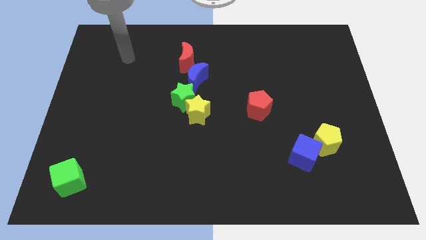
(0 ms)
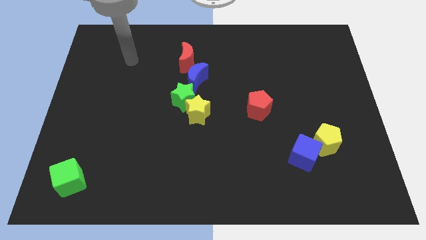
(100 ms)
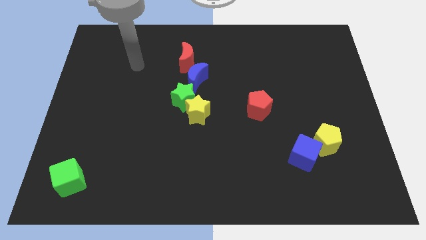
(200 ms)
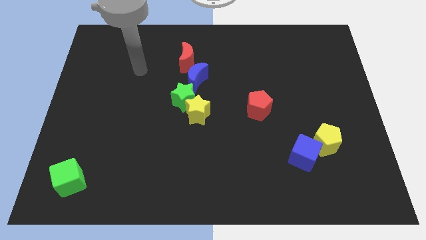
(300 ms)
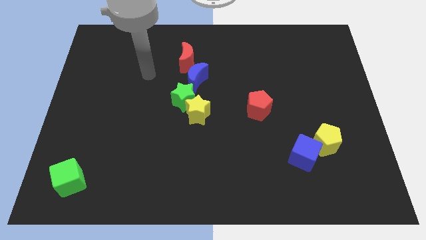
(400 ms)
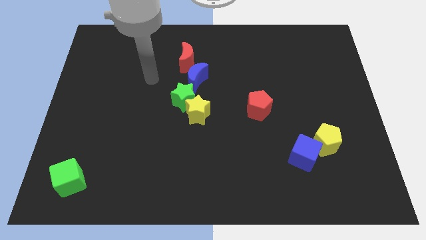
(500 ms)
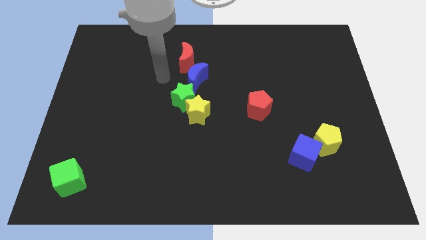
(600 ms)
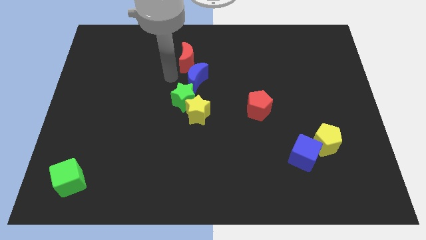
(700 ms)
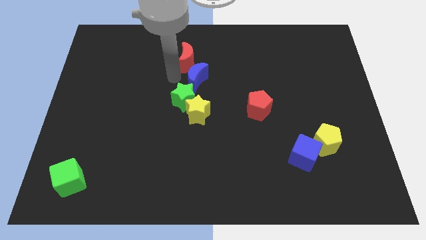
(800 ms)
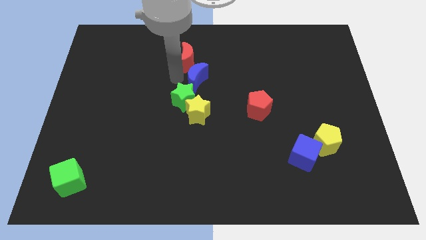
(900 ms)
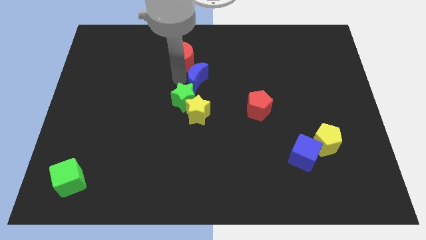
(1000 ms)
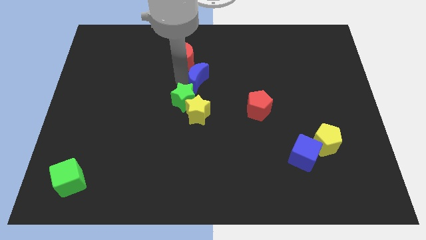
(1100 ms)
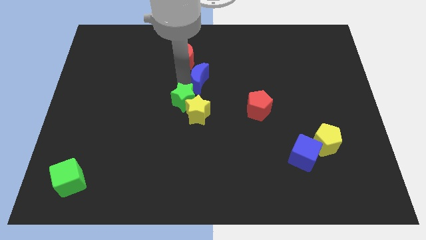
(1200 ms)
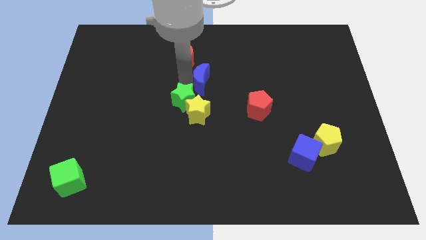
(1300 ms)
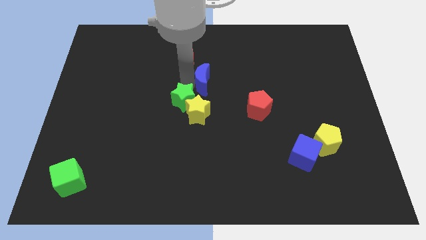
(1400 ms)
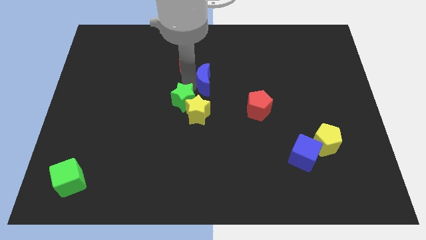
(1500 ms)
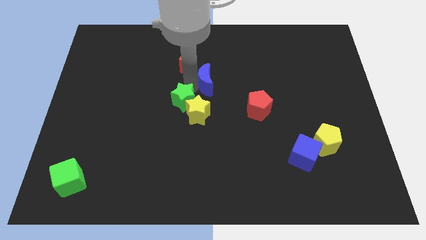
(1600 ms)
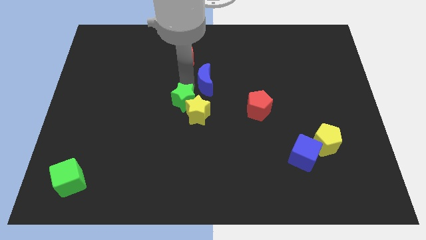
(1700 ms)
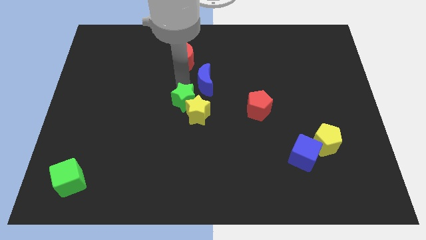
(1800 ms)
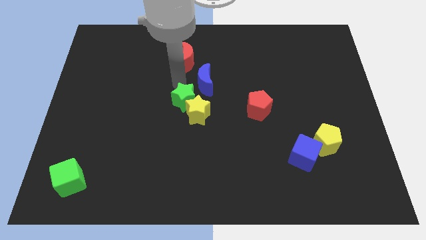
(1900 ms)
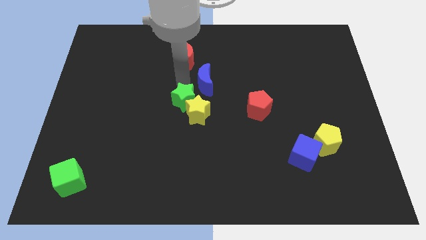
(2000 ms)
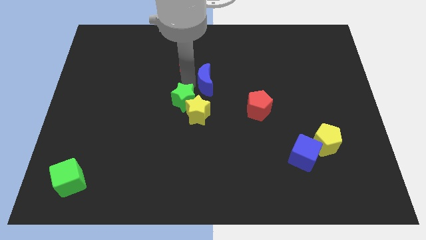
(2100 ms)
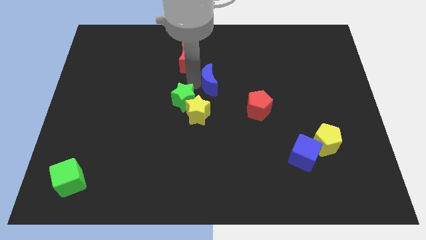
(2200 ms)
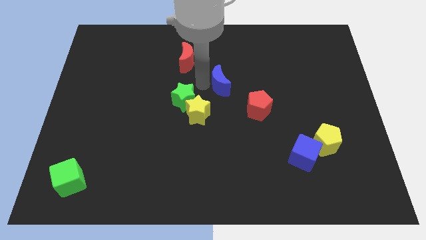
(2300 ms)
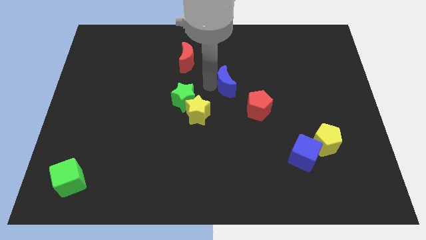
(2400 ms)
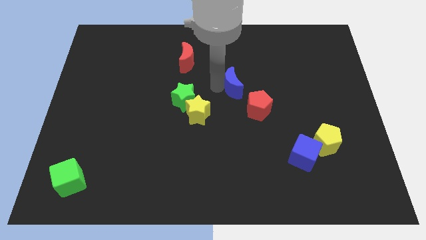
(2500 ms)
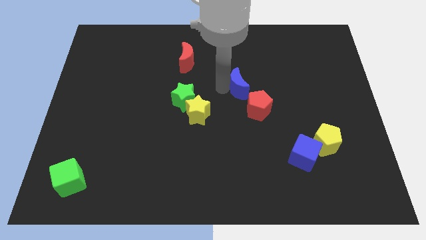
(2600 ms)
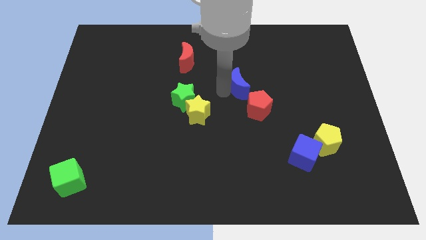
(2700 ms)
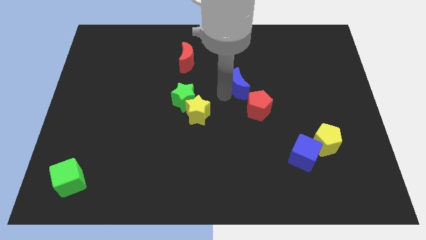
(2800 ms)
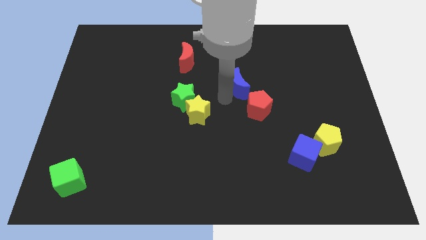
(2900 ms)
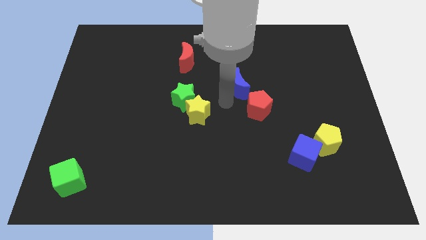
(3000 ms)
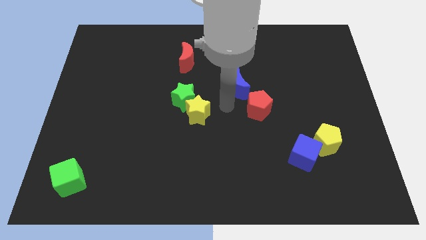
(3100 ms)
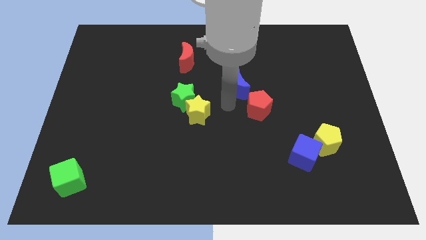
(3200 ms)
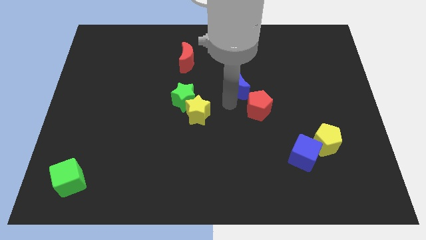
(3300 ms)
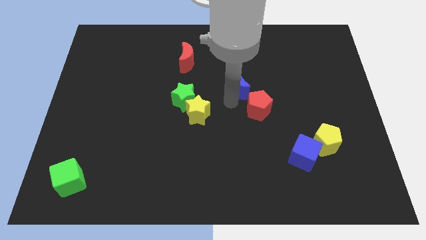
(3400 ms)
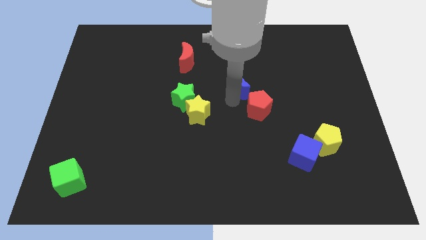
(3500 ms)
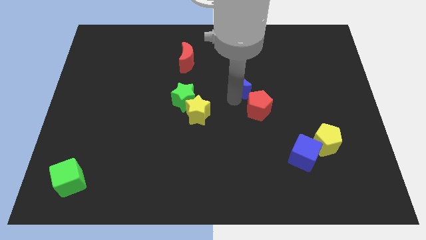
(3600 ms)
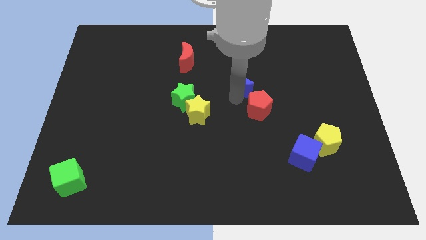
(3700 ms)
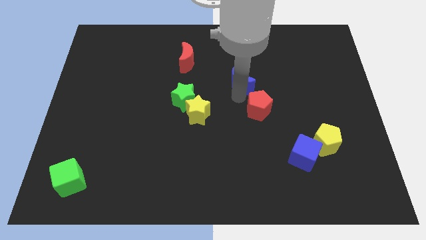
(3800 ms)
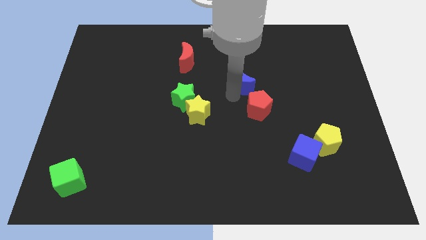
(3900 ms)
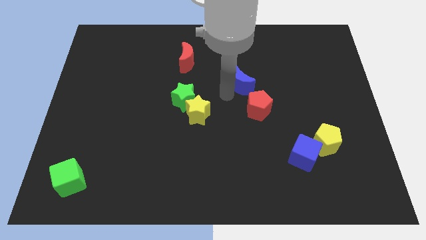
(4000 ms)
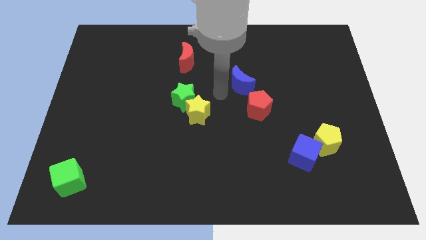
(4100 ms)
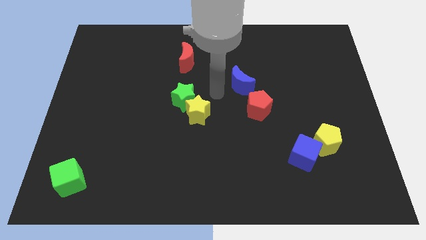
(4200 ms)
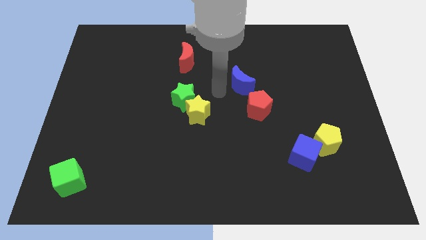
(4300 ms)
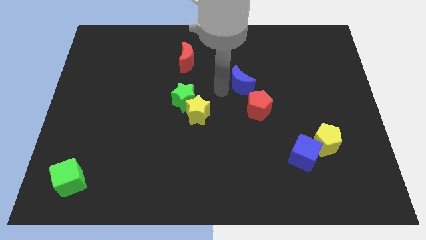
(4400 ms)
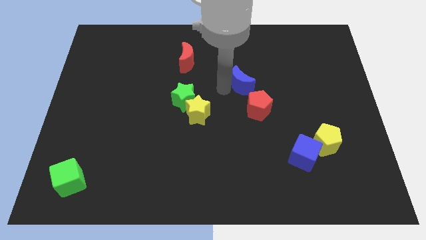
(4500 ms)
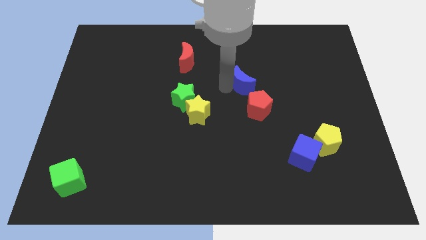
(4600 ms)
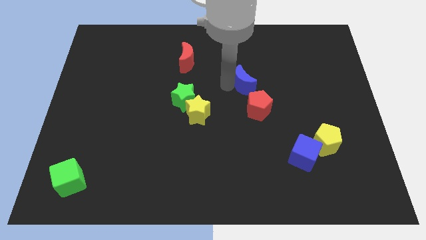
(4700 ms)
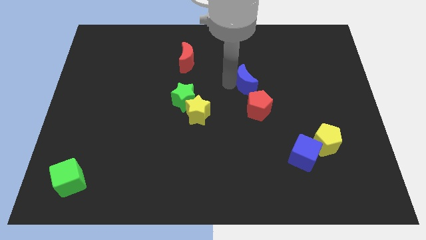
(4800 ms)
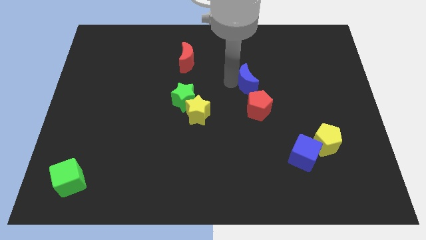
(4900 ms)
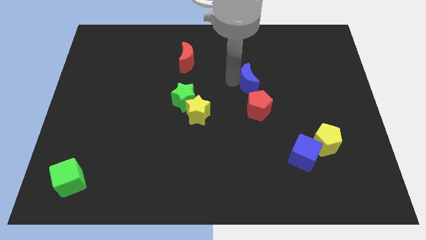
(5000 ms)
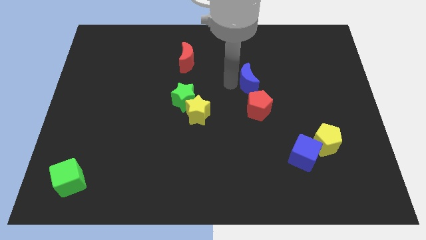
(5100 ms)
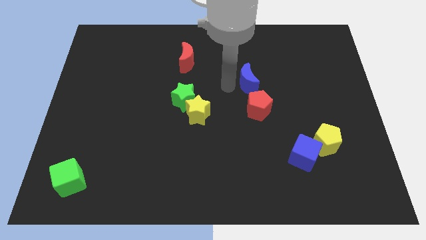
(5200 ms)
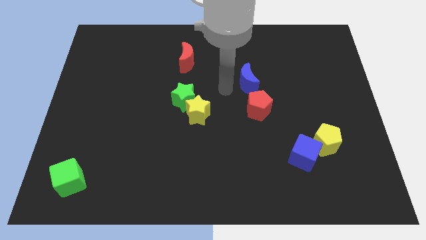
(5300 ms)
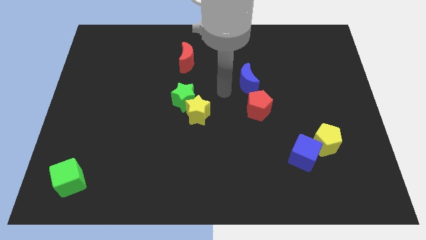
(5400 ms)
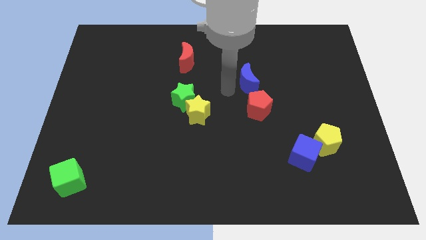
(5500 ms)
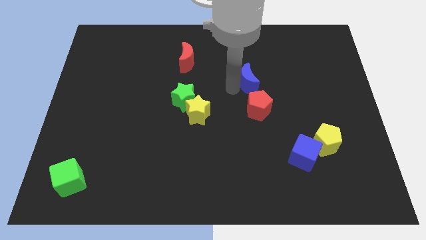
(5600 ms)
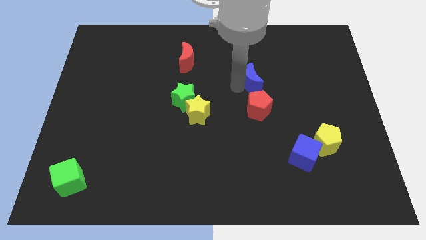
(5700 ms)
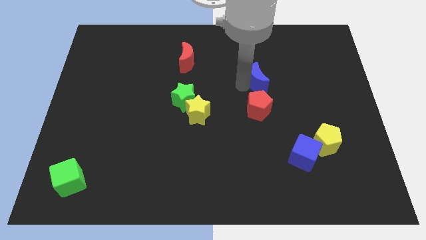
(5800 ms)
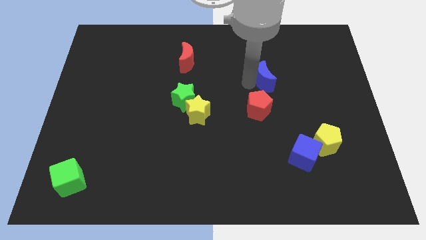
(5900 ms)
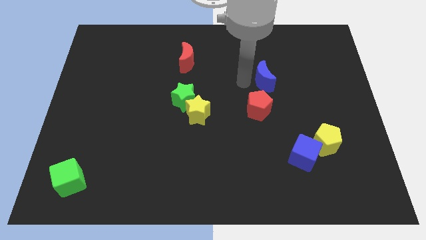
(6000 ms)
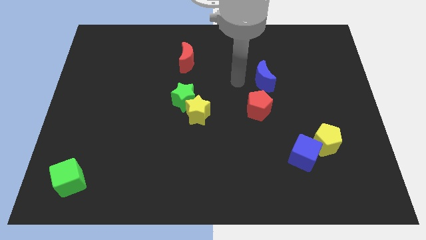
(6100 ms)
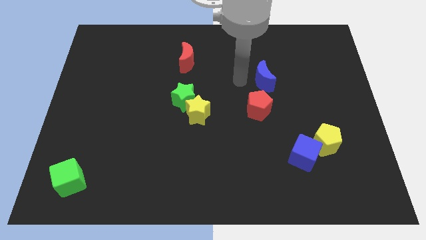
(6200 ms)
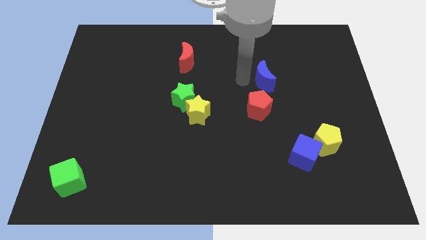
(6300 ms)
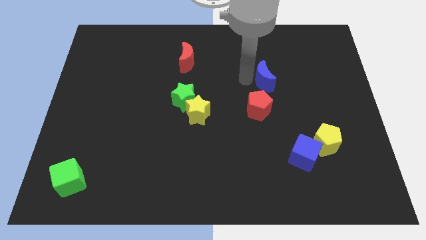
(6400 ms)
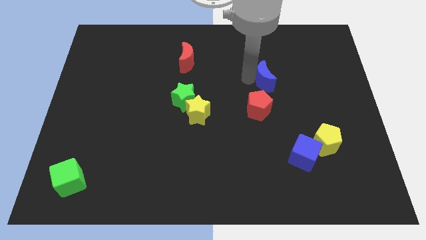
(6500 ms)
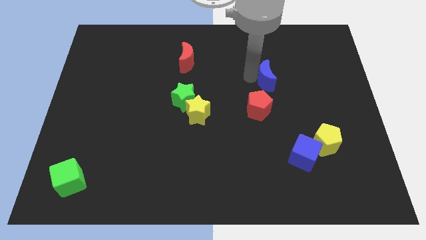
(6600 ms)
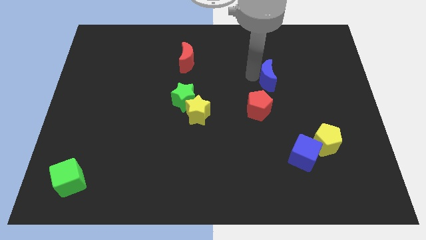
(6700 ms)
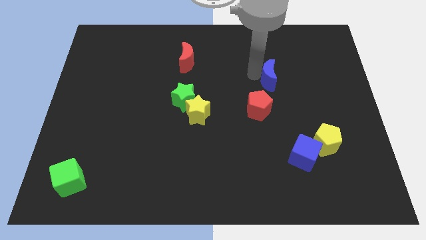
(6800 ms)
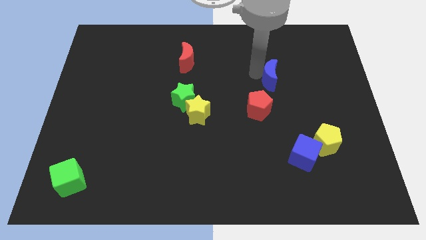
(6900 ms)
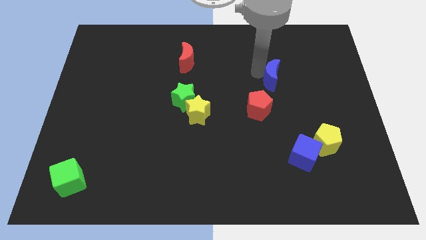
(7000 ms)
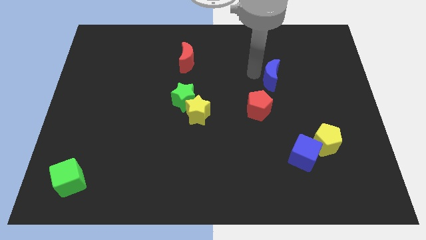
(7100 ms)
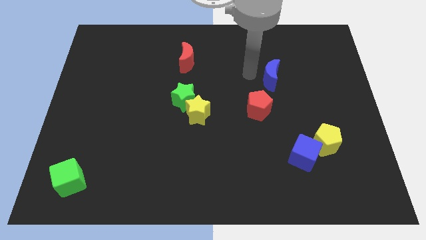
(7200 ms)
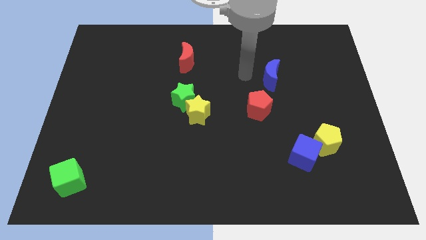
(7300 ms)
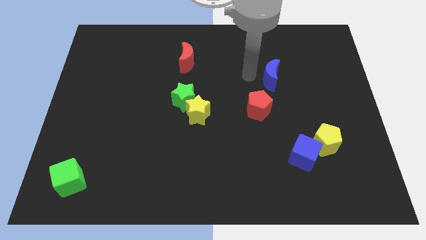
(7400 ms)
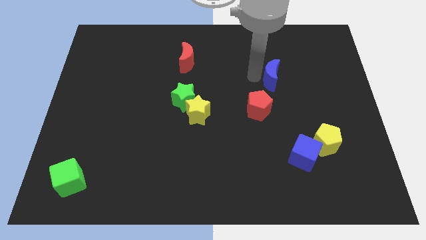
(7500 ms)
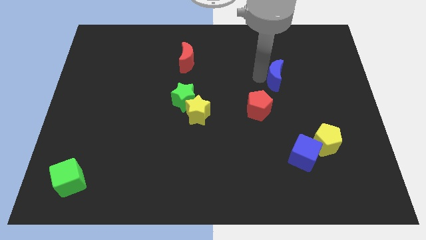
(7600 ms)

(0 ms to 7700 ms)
push the blue moon to the right

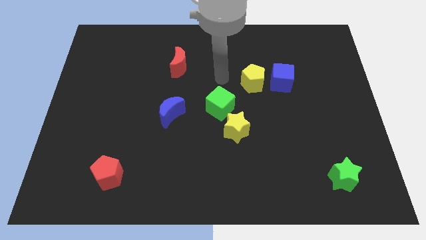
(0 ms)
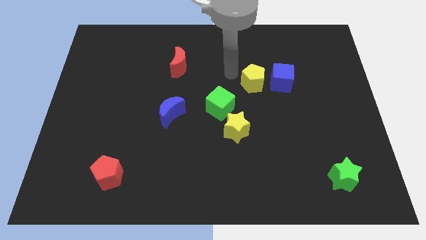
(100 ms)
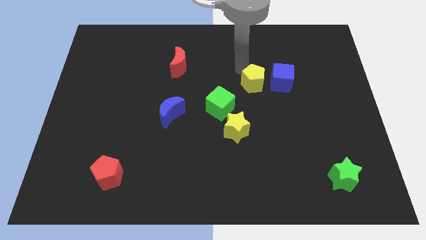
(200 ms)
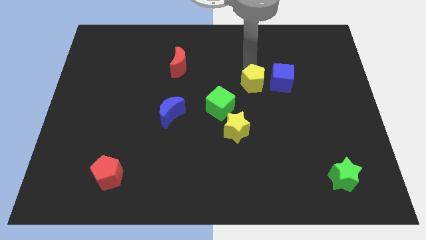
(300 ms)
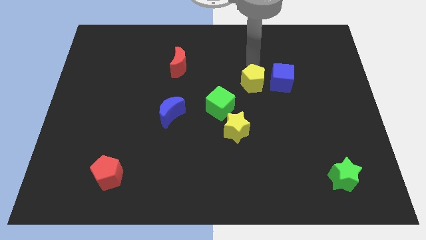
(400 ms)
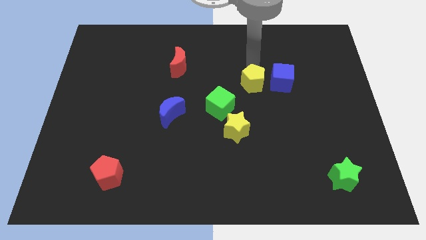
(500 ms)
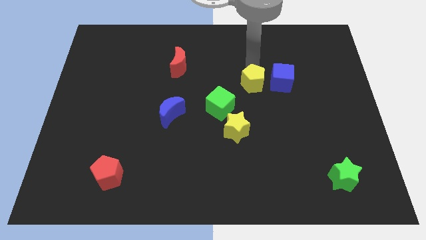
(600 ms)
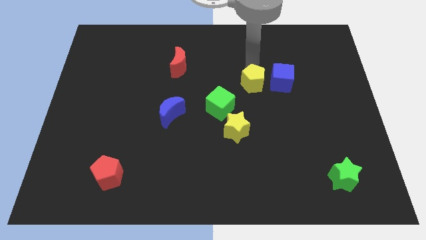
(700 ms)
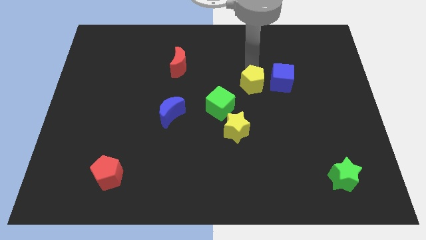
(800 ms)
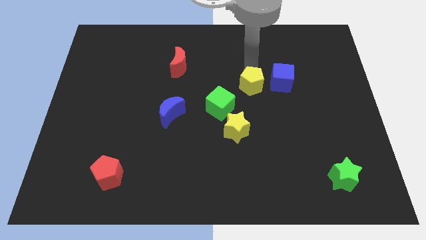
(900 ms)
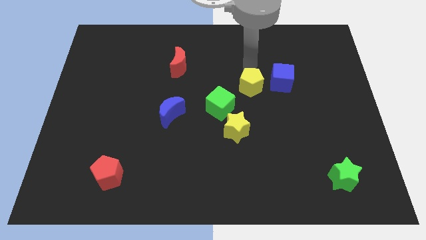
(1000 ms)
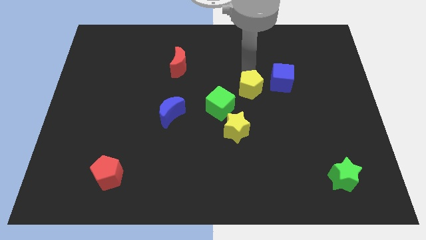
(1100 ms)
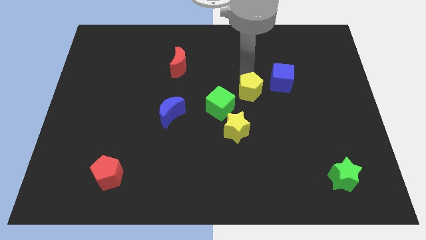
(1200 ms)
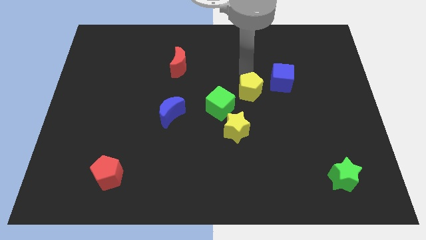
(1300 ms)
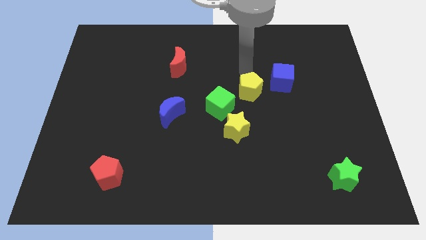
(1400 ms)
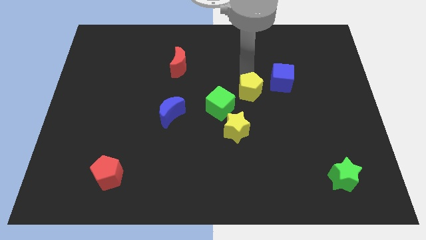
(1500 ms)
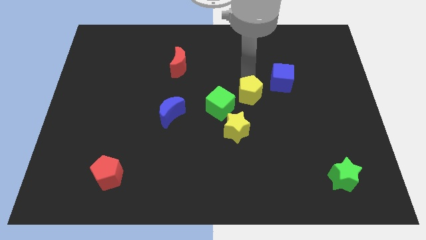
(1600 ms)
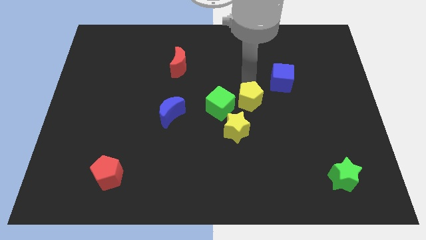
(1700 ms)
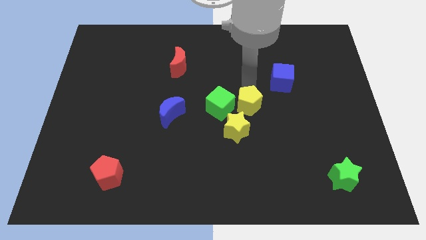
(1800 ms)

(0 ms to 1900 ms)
slightly push the yellow pentagon downwards
